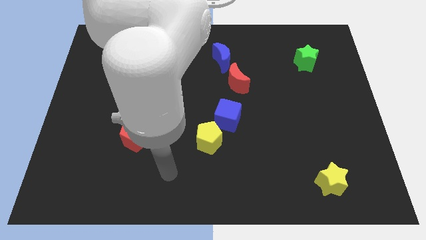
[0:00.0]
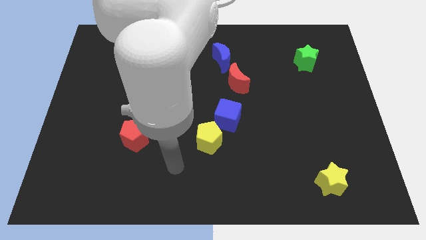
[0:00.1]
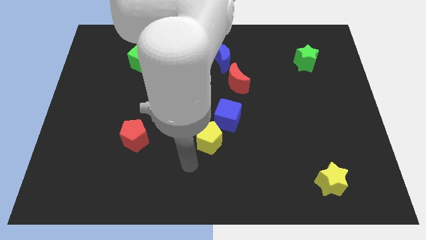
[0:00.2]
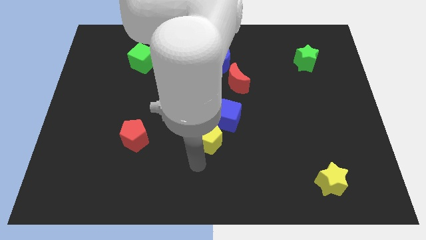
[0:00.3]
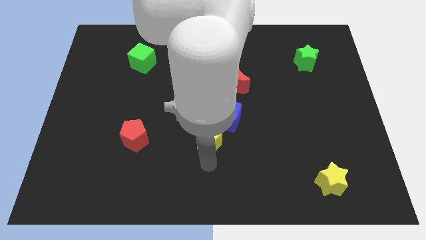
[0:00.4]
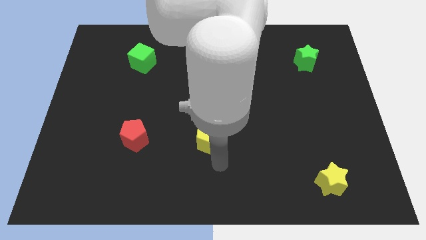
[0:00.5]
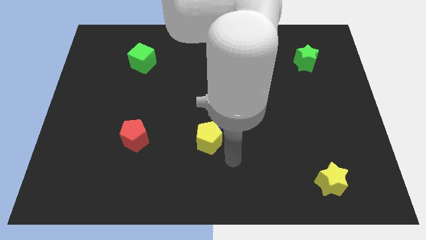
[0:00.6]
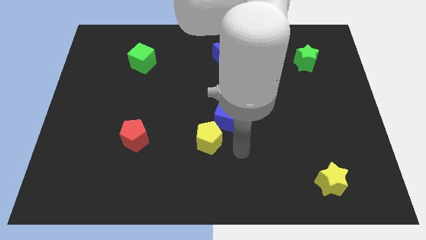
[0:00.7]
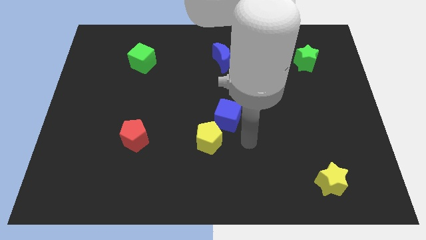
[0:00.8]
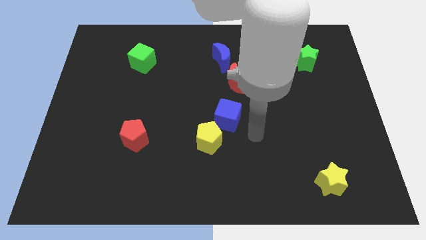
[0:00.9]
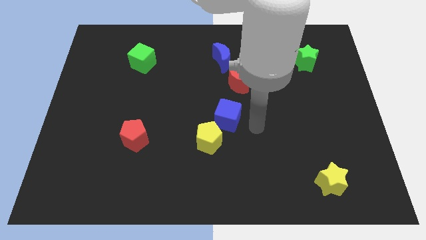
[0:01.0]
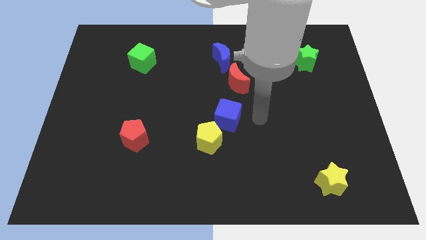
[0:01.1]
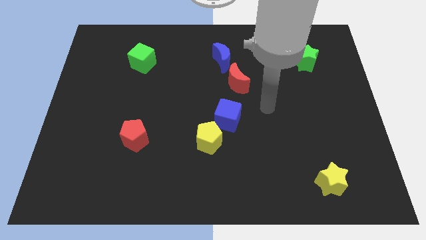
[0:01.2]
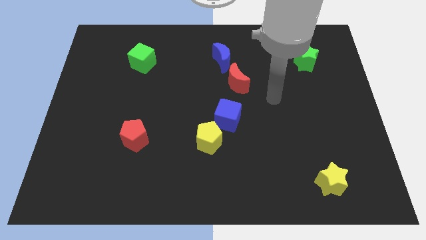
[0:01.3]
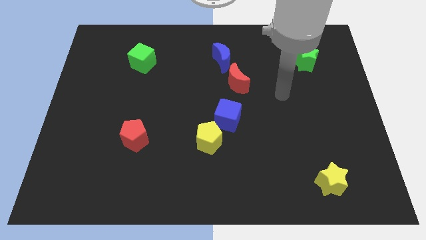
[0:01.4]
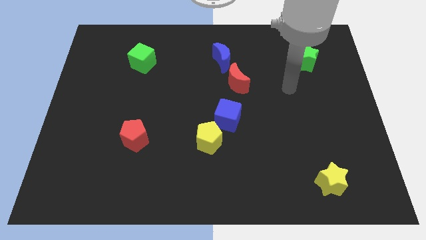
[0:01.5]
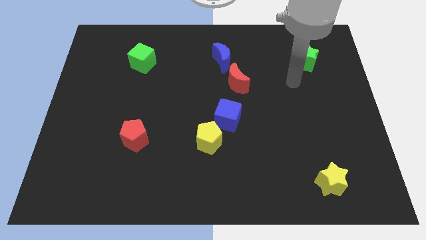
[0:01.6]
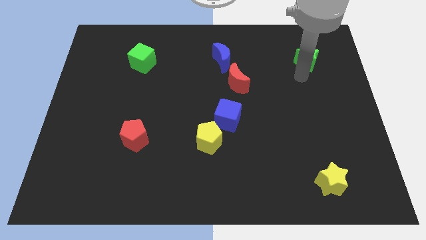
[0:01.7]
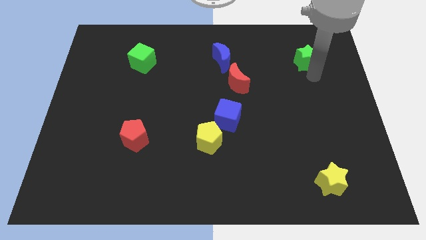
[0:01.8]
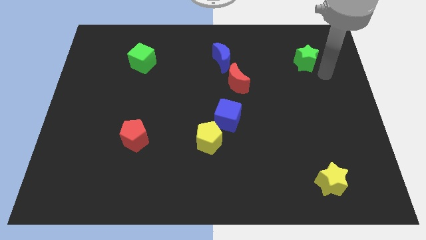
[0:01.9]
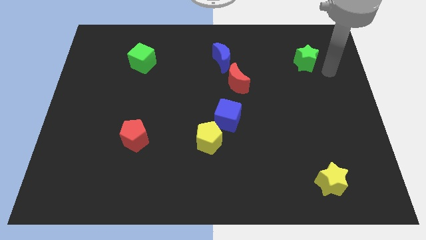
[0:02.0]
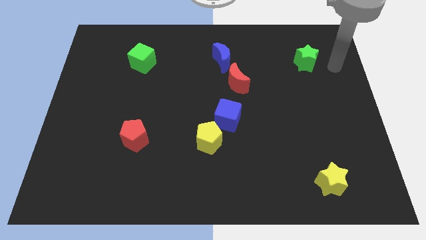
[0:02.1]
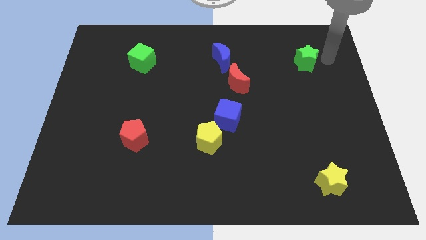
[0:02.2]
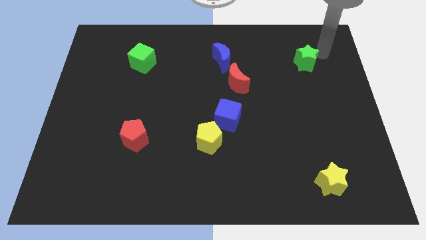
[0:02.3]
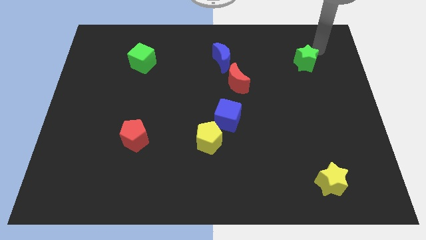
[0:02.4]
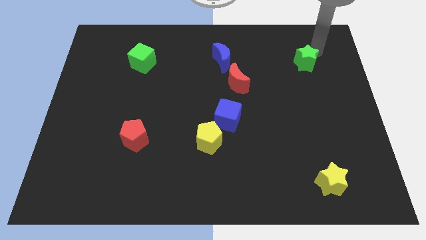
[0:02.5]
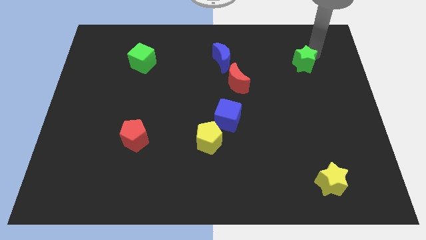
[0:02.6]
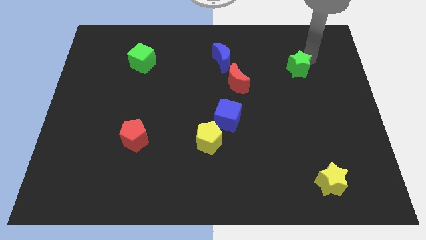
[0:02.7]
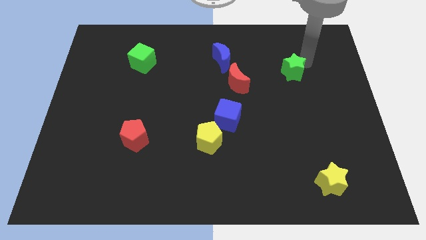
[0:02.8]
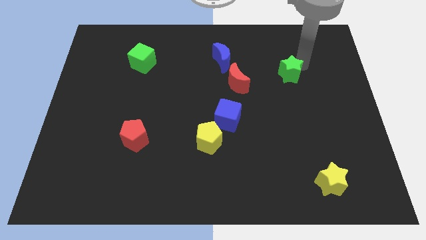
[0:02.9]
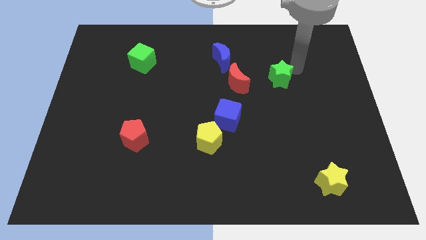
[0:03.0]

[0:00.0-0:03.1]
move the green star slightly down and to the left diagonally

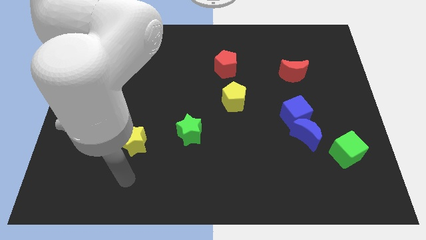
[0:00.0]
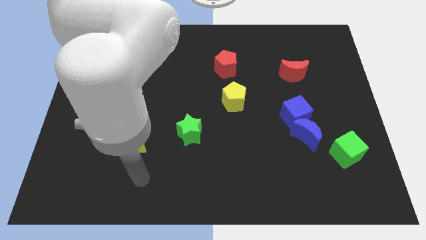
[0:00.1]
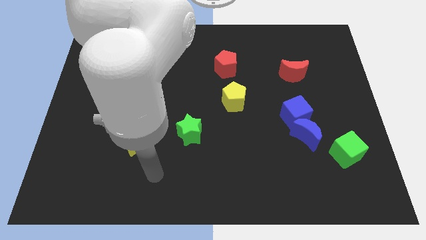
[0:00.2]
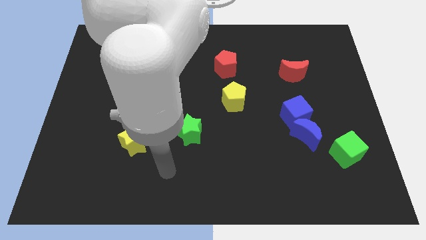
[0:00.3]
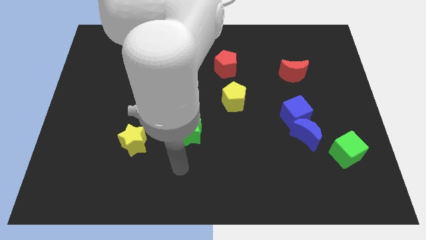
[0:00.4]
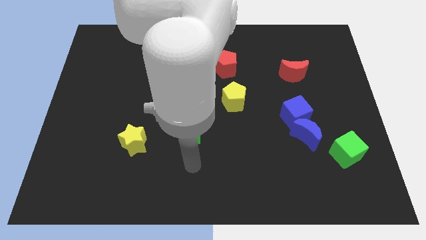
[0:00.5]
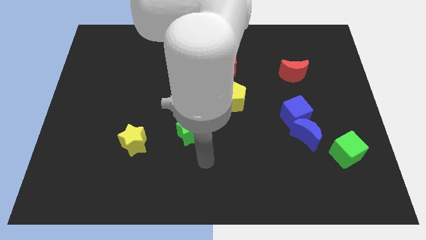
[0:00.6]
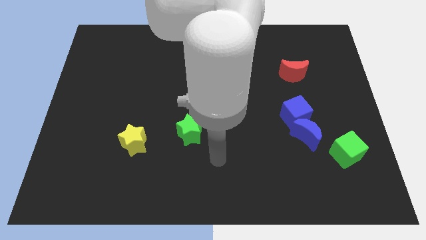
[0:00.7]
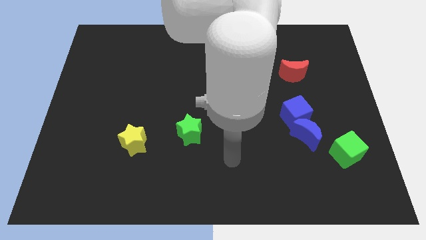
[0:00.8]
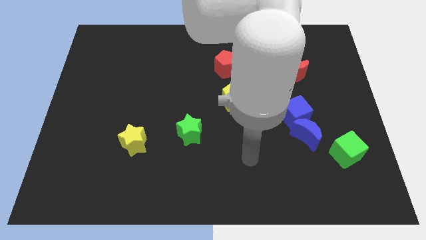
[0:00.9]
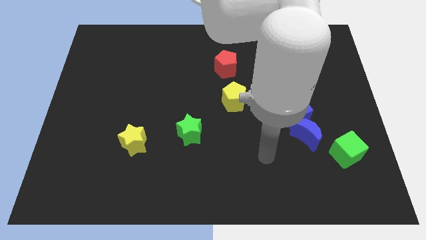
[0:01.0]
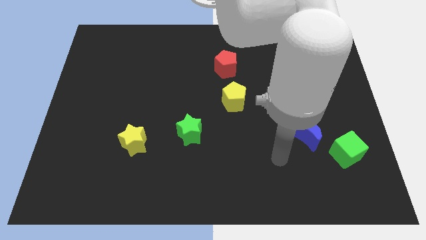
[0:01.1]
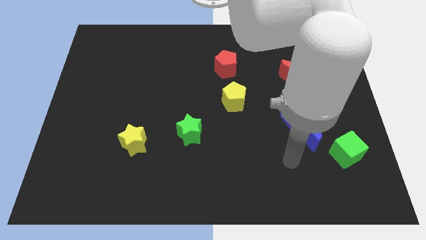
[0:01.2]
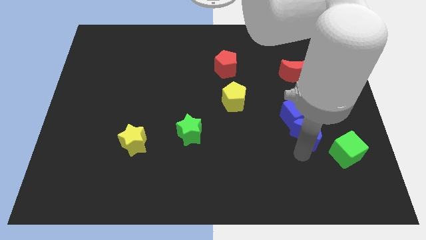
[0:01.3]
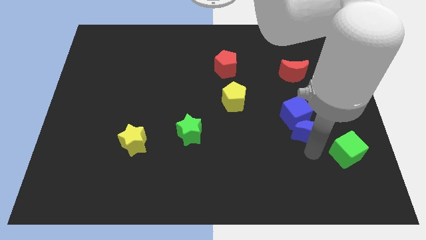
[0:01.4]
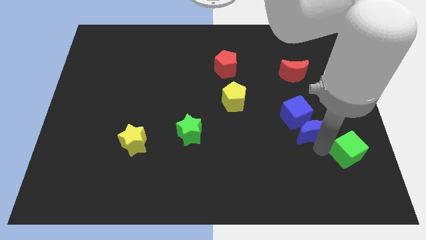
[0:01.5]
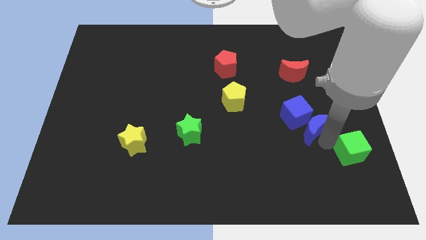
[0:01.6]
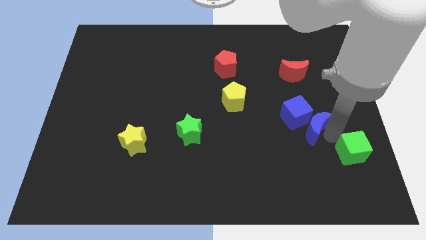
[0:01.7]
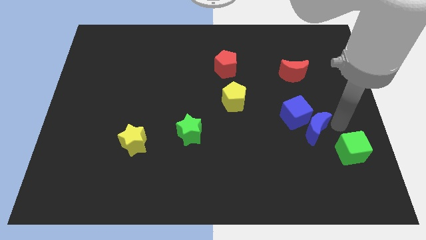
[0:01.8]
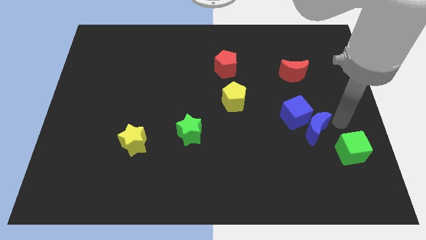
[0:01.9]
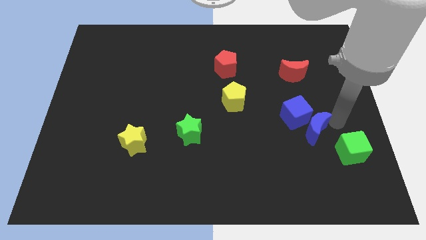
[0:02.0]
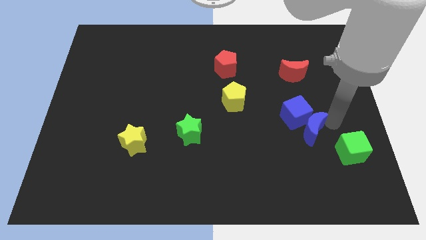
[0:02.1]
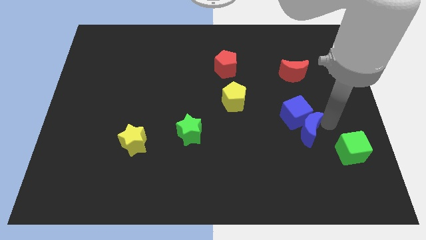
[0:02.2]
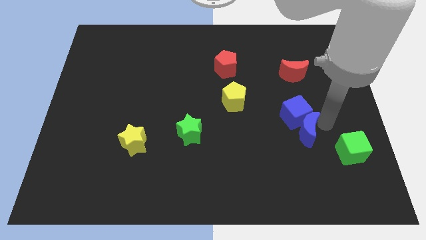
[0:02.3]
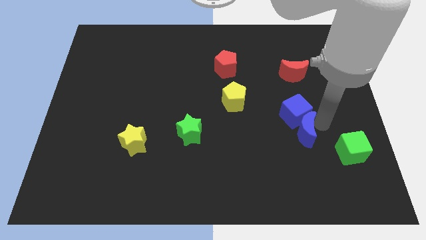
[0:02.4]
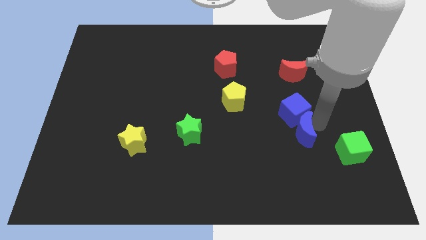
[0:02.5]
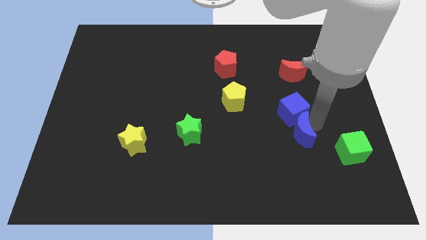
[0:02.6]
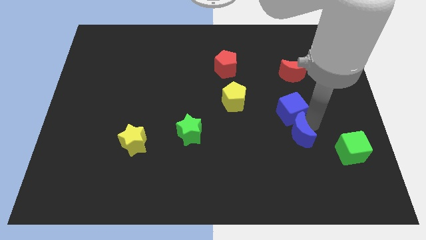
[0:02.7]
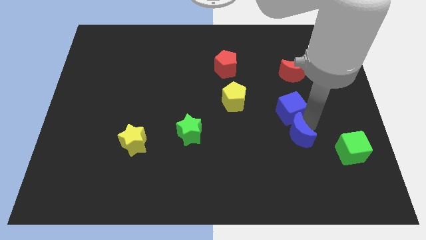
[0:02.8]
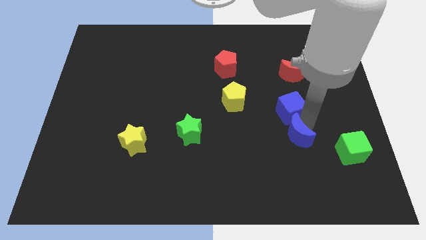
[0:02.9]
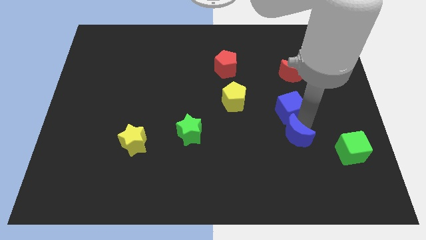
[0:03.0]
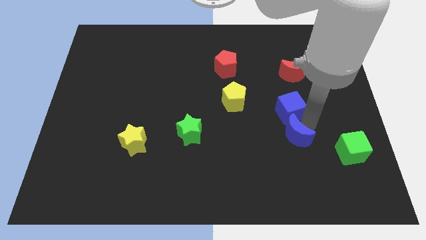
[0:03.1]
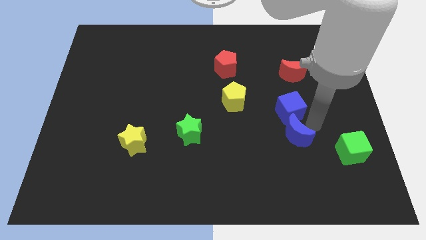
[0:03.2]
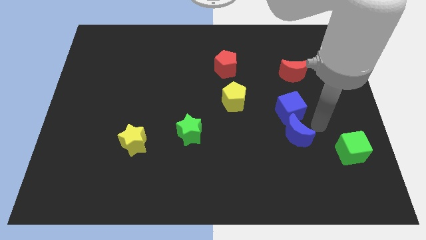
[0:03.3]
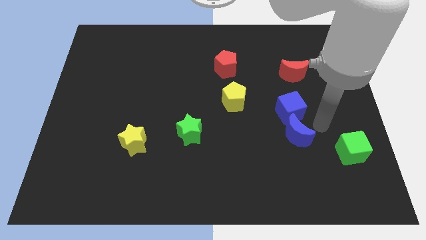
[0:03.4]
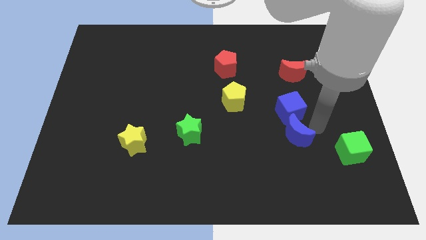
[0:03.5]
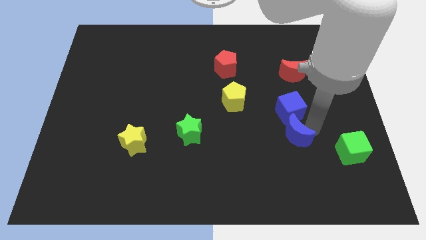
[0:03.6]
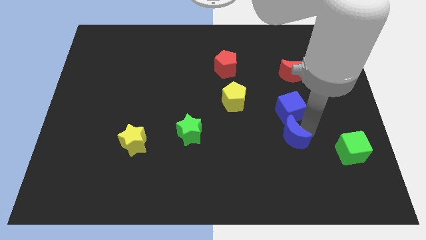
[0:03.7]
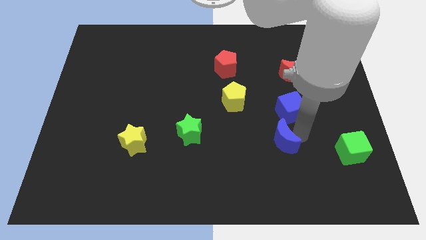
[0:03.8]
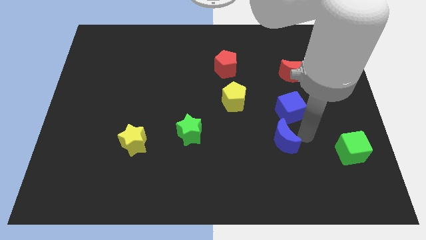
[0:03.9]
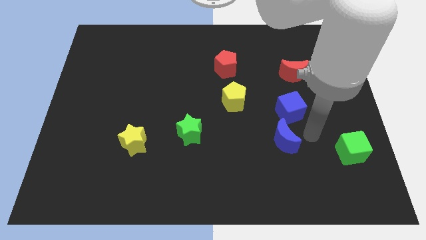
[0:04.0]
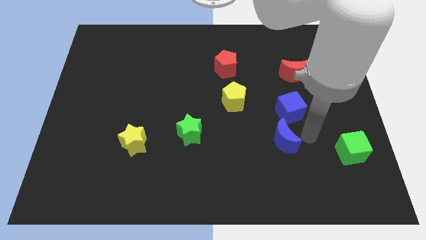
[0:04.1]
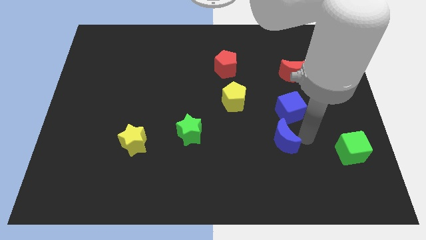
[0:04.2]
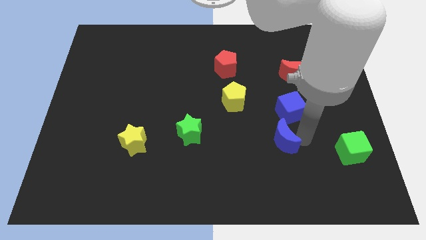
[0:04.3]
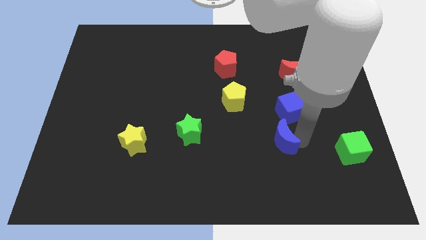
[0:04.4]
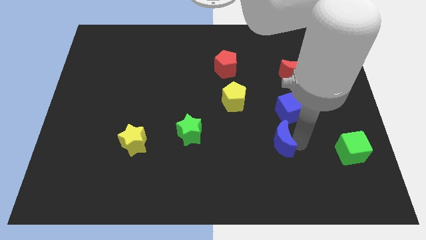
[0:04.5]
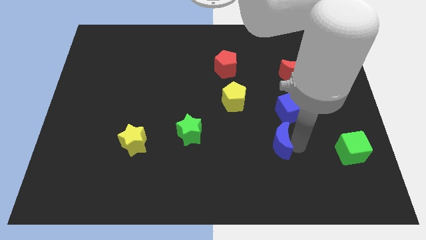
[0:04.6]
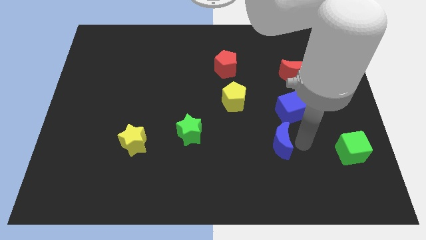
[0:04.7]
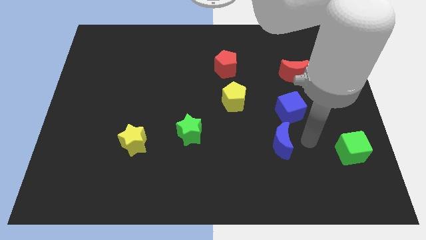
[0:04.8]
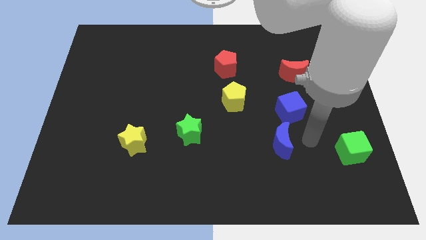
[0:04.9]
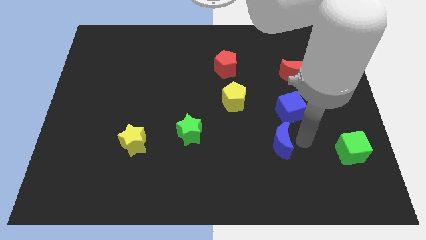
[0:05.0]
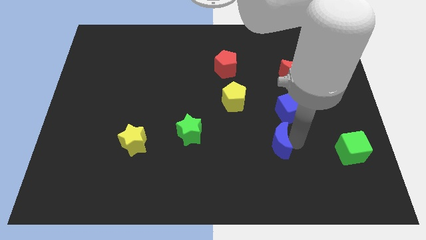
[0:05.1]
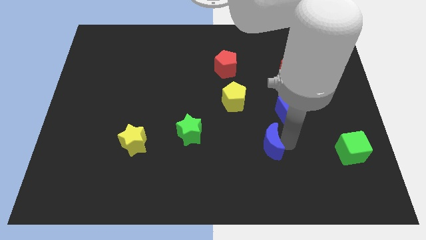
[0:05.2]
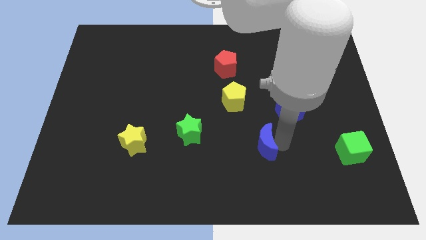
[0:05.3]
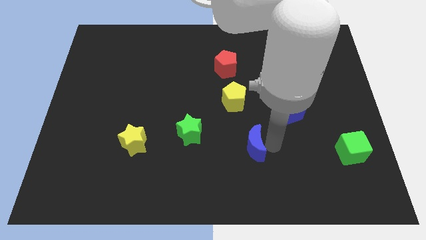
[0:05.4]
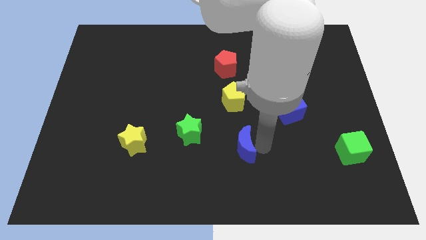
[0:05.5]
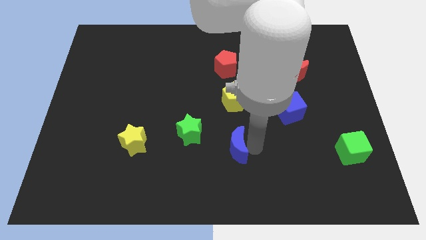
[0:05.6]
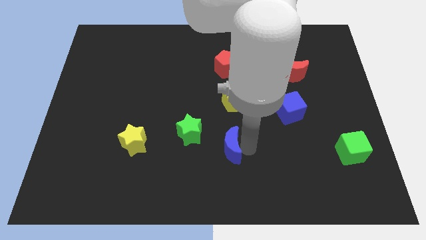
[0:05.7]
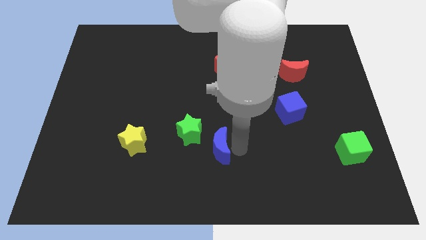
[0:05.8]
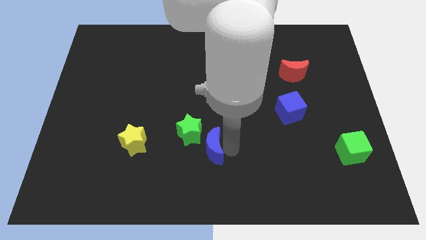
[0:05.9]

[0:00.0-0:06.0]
move the blue moon left
